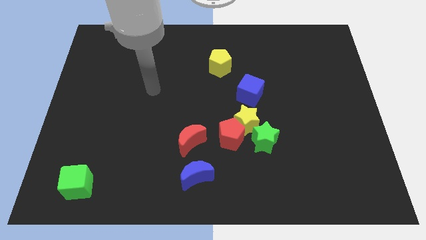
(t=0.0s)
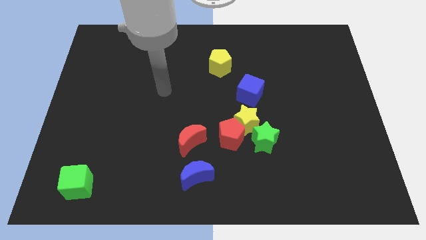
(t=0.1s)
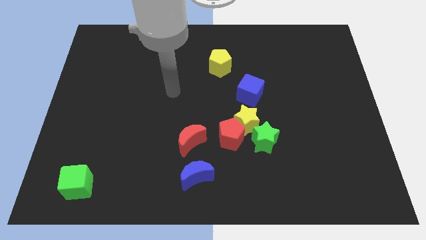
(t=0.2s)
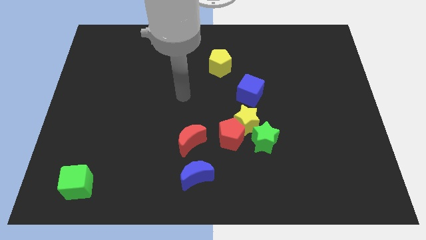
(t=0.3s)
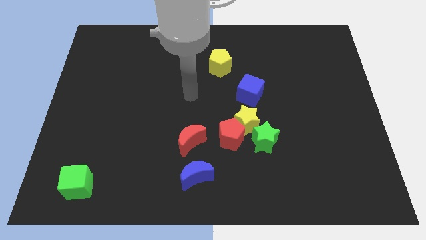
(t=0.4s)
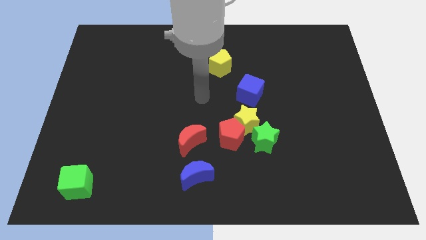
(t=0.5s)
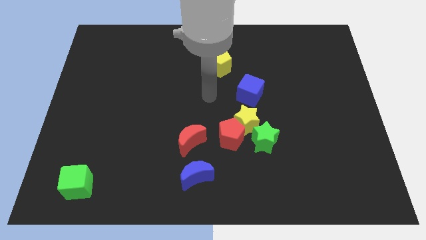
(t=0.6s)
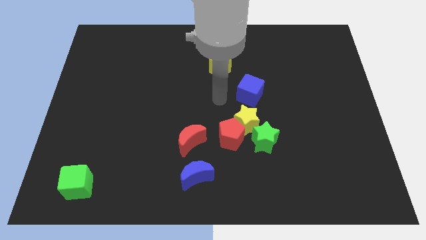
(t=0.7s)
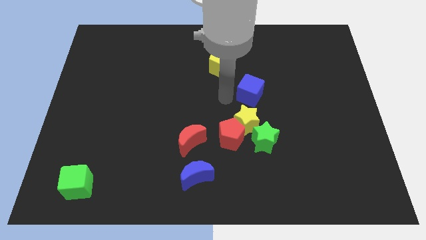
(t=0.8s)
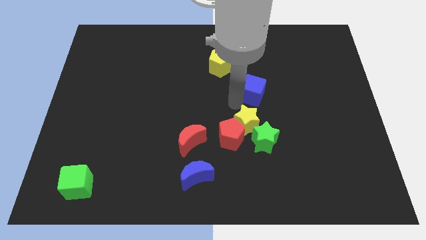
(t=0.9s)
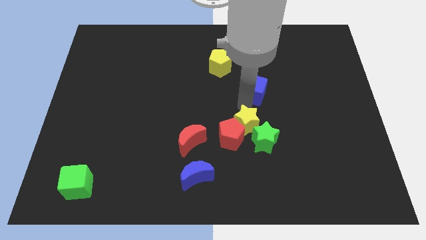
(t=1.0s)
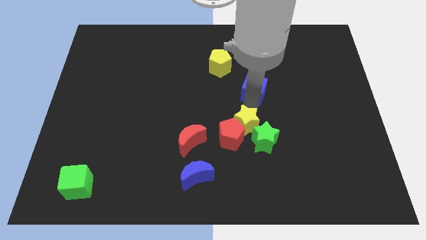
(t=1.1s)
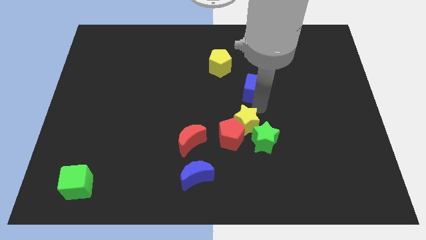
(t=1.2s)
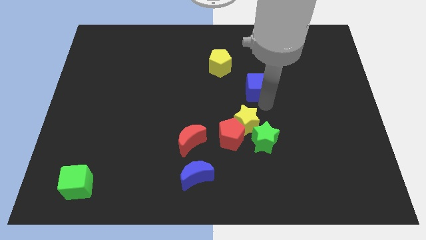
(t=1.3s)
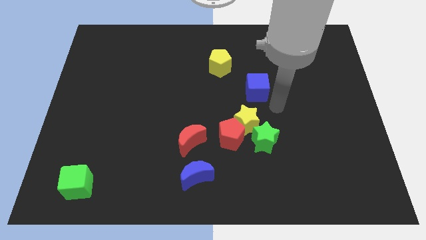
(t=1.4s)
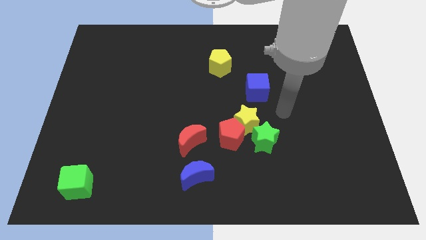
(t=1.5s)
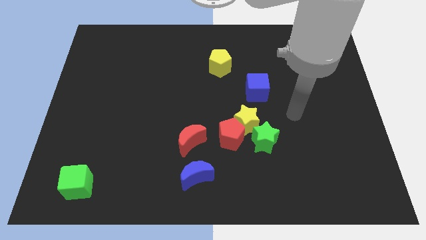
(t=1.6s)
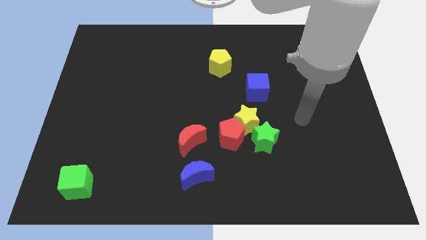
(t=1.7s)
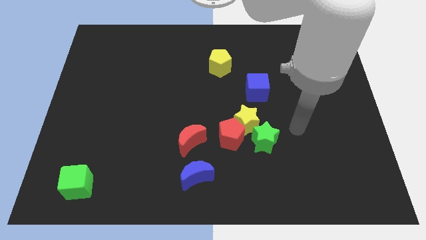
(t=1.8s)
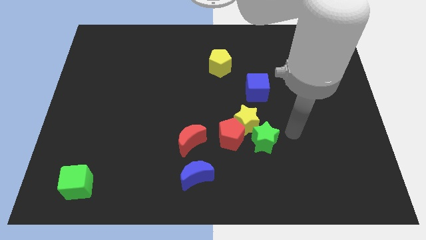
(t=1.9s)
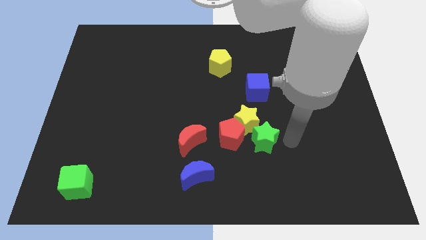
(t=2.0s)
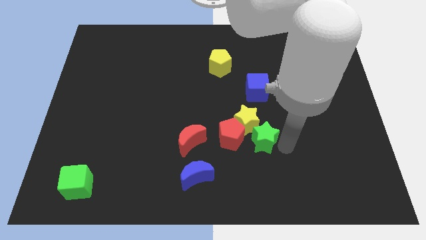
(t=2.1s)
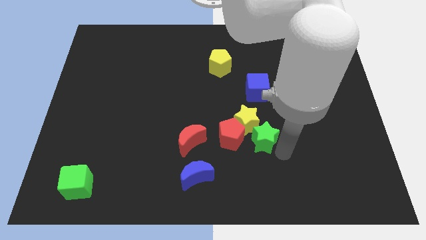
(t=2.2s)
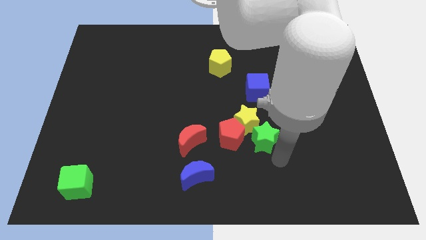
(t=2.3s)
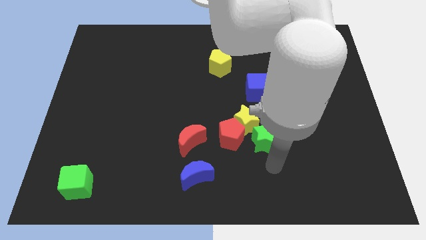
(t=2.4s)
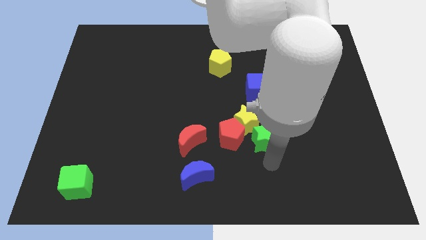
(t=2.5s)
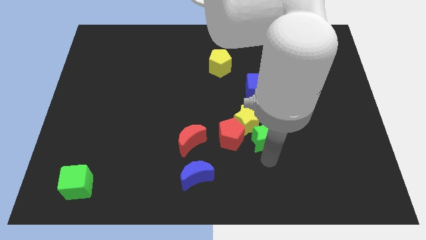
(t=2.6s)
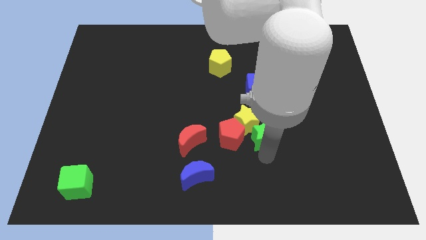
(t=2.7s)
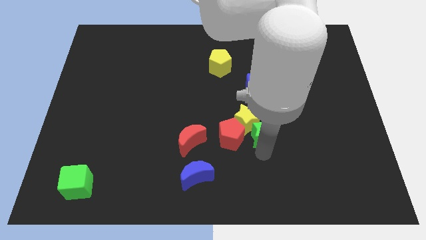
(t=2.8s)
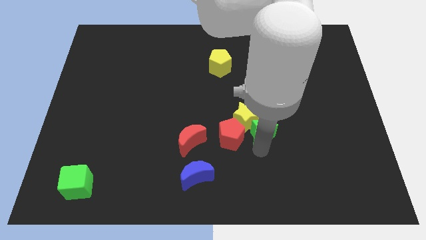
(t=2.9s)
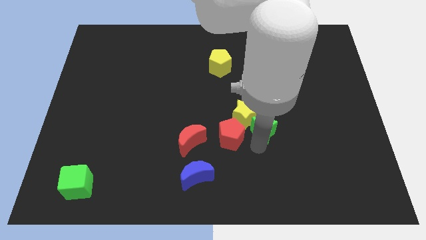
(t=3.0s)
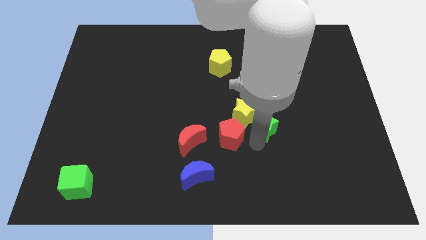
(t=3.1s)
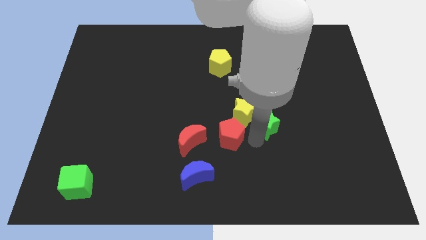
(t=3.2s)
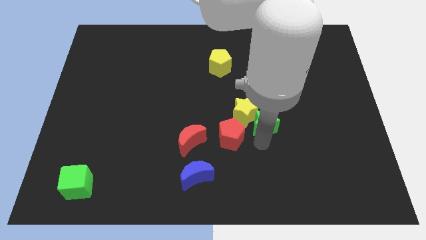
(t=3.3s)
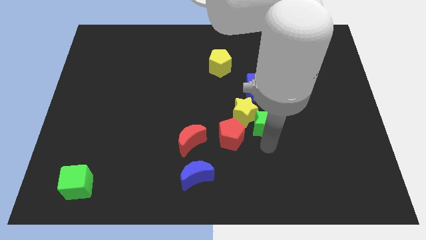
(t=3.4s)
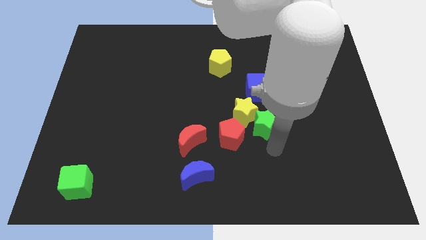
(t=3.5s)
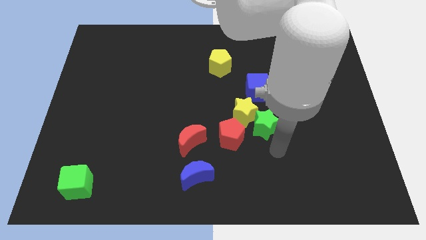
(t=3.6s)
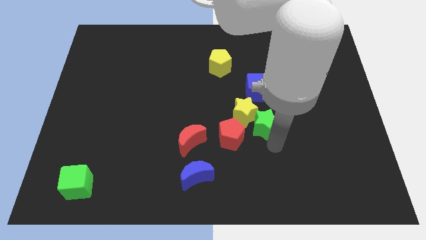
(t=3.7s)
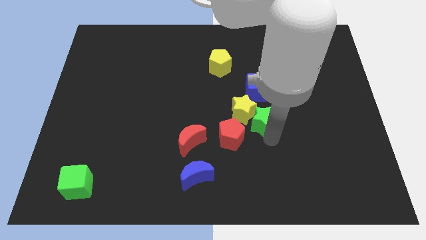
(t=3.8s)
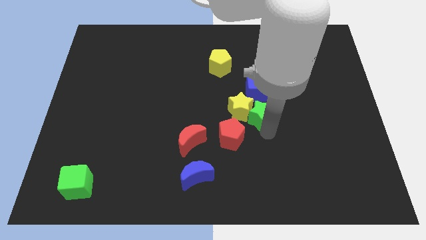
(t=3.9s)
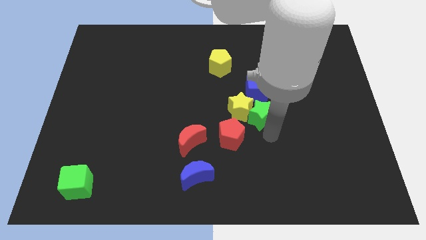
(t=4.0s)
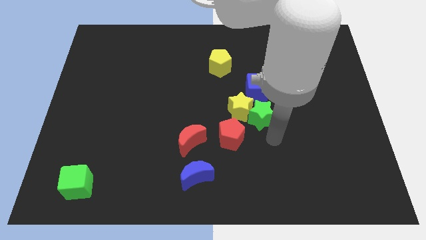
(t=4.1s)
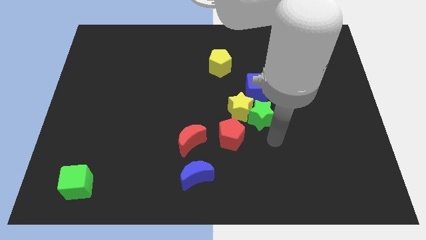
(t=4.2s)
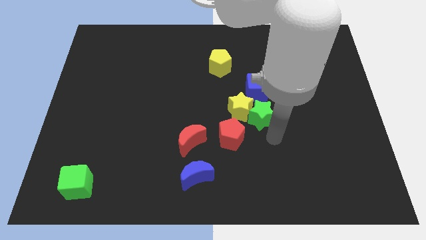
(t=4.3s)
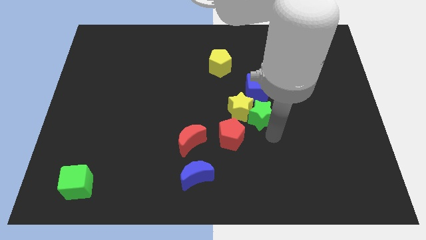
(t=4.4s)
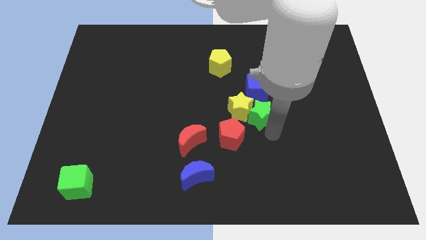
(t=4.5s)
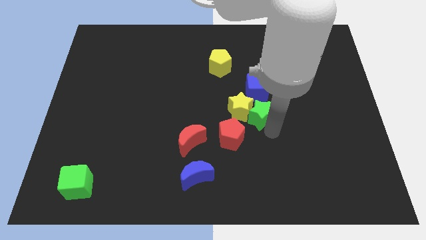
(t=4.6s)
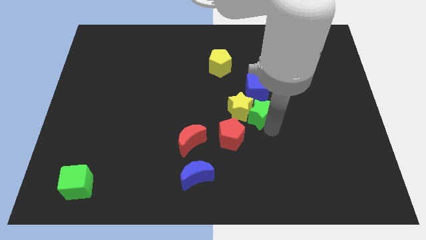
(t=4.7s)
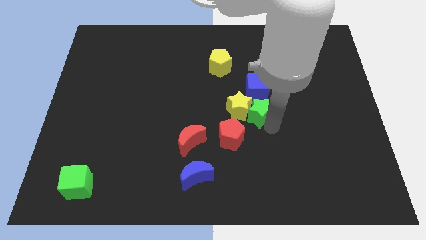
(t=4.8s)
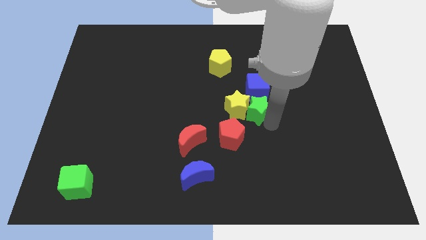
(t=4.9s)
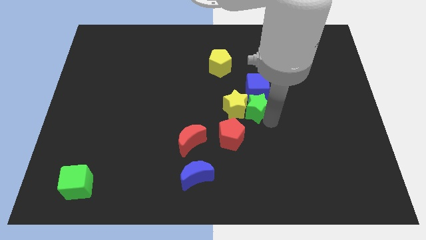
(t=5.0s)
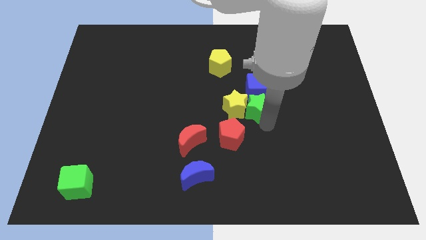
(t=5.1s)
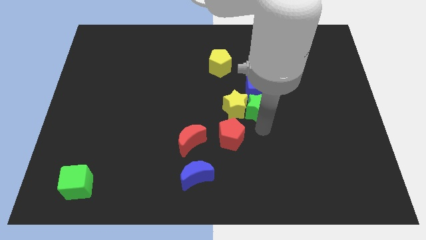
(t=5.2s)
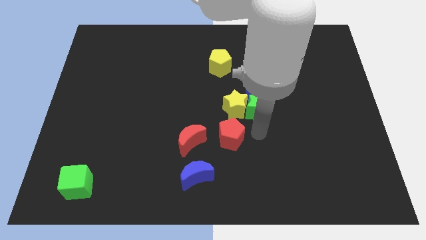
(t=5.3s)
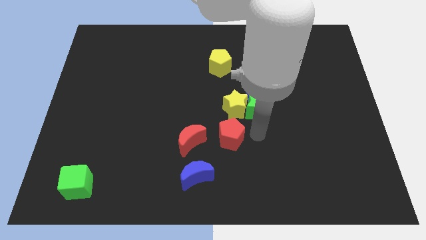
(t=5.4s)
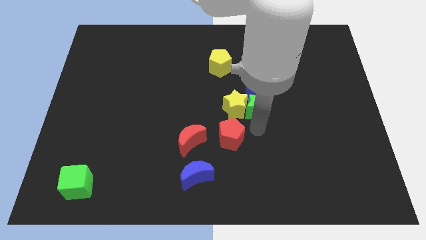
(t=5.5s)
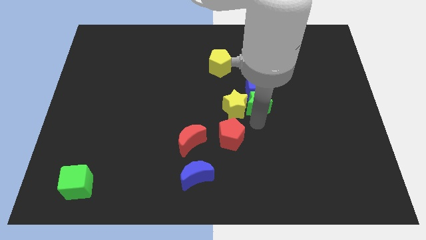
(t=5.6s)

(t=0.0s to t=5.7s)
move the green star to the blue cube

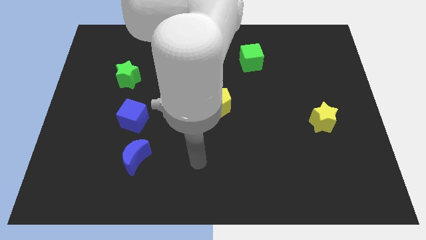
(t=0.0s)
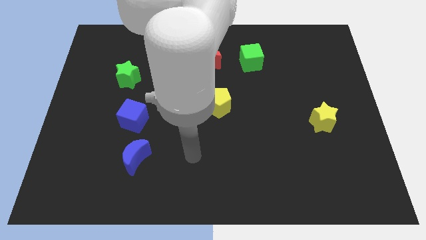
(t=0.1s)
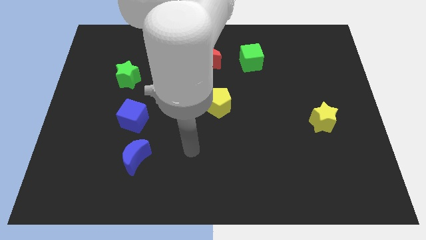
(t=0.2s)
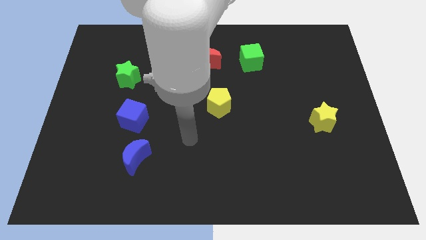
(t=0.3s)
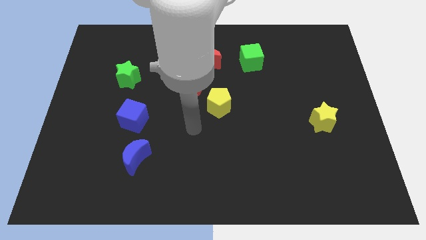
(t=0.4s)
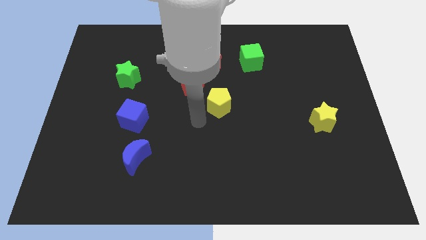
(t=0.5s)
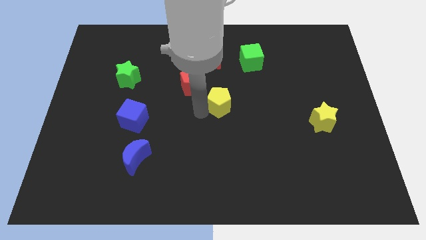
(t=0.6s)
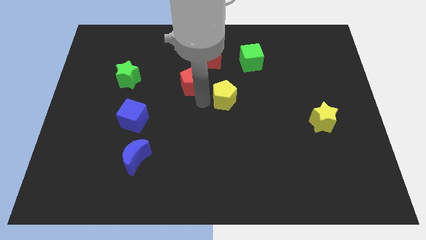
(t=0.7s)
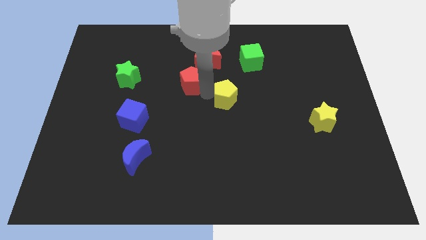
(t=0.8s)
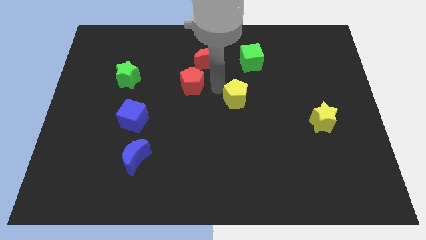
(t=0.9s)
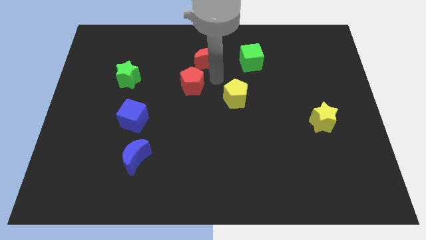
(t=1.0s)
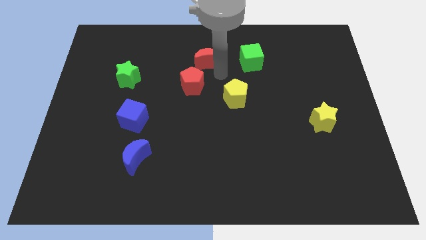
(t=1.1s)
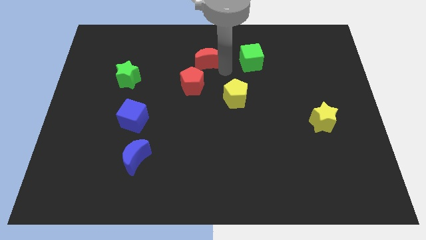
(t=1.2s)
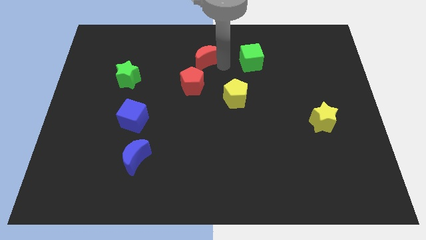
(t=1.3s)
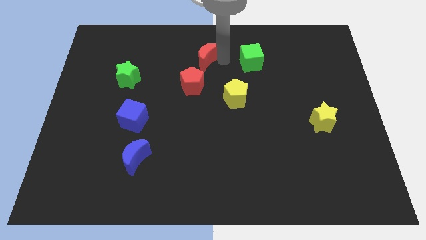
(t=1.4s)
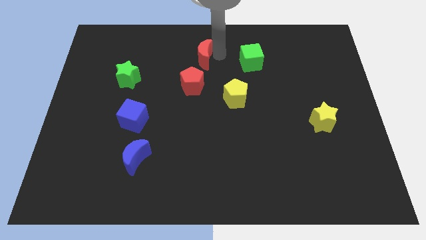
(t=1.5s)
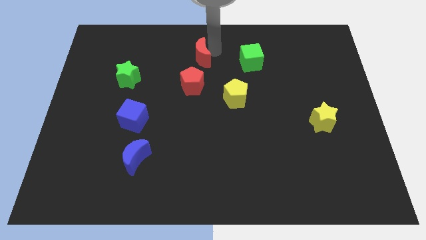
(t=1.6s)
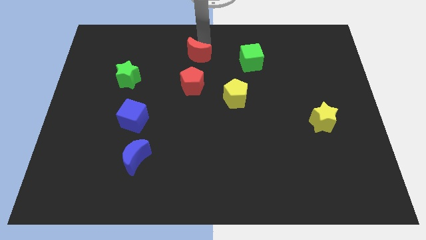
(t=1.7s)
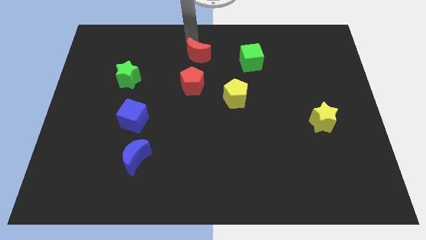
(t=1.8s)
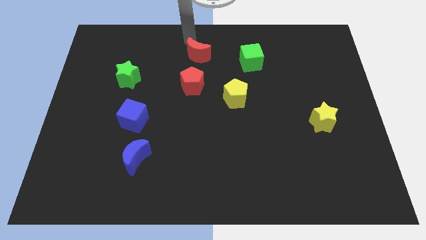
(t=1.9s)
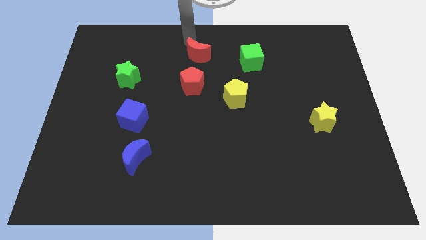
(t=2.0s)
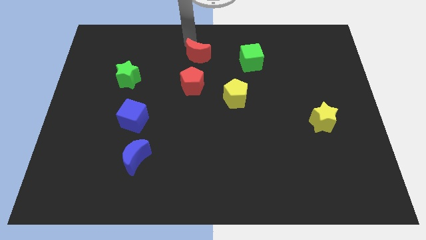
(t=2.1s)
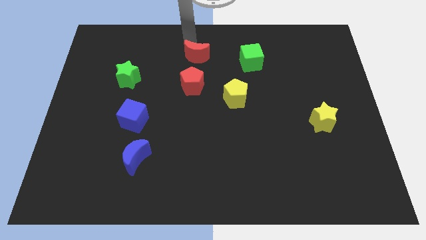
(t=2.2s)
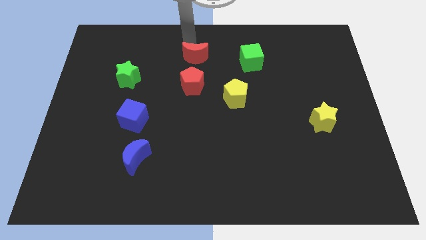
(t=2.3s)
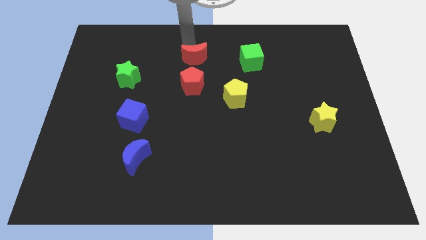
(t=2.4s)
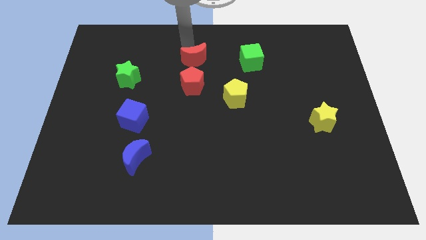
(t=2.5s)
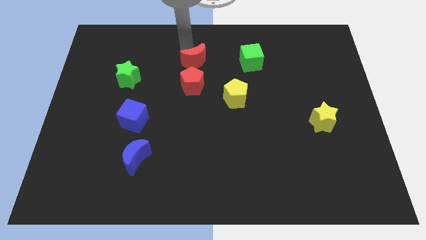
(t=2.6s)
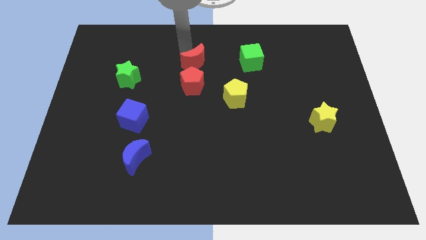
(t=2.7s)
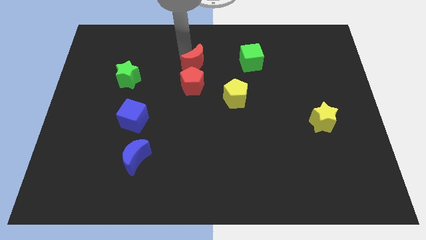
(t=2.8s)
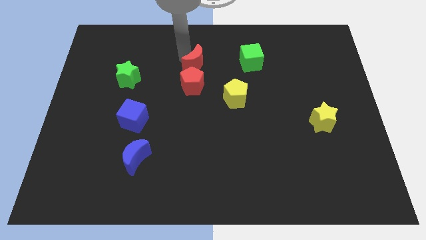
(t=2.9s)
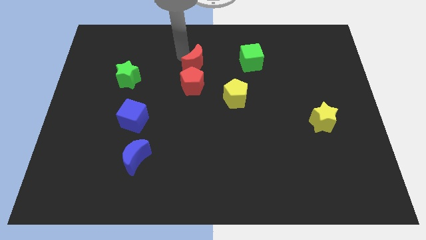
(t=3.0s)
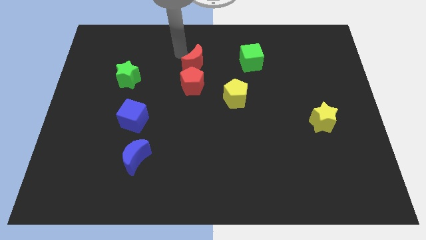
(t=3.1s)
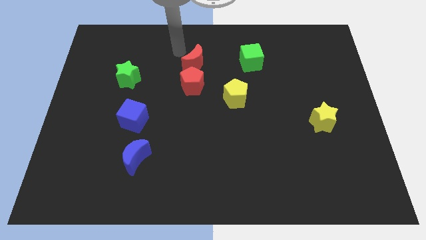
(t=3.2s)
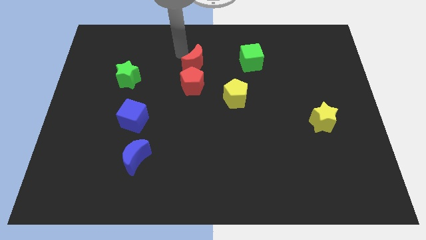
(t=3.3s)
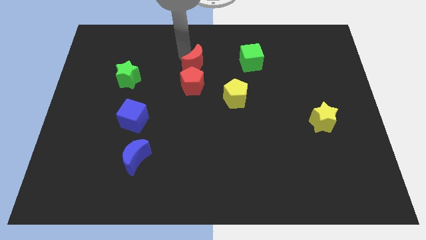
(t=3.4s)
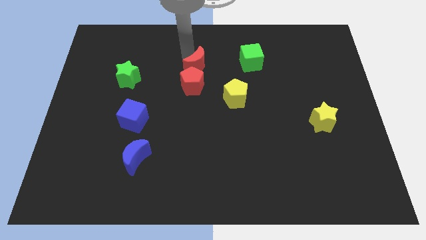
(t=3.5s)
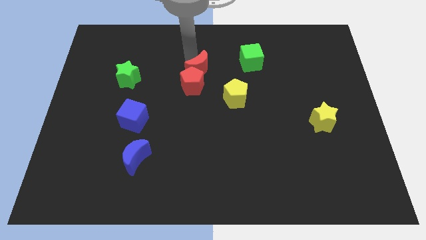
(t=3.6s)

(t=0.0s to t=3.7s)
put the red moon to the red pentagon
